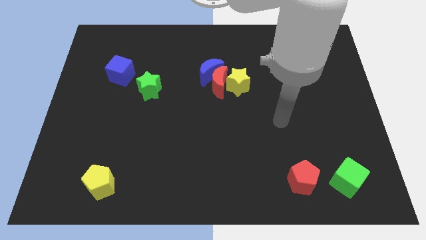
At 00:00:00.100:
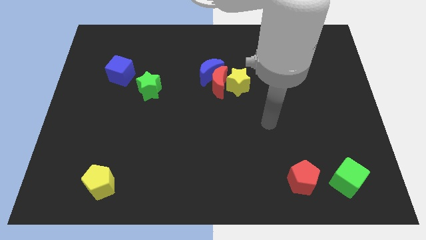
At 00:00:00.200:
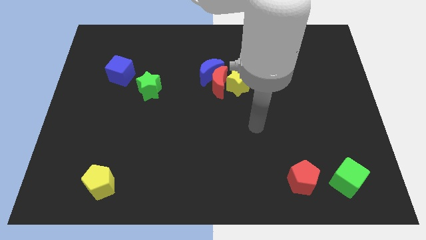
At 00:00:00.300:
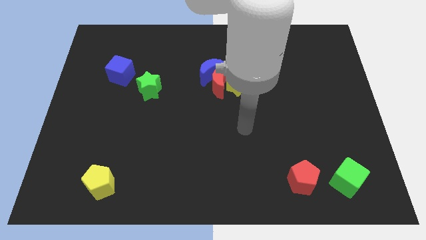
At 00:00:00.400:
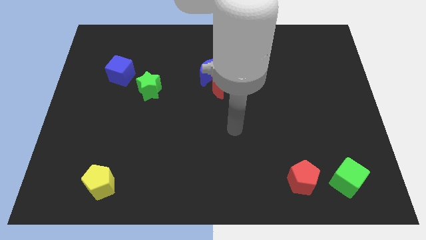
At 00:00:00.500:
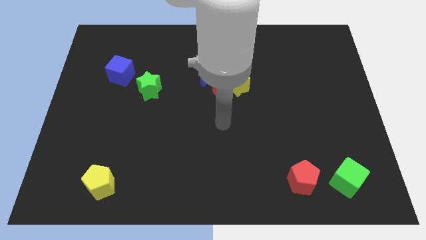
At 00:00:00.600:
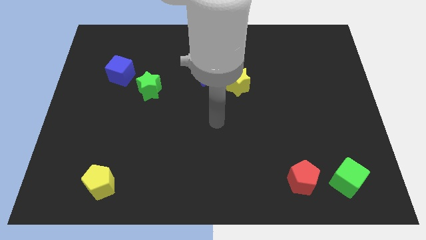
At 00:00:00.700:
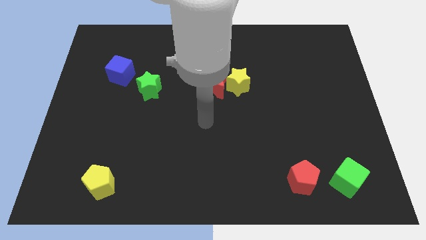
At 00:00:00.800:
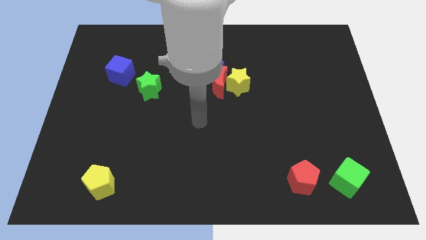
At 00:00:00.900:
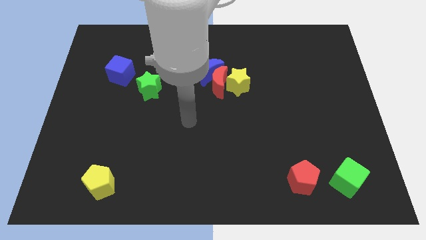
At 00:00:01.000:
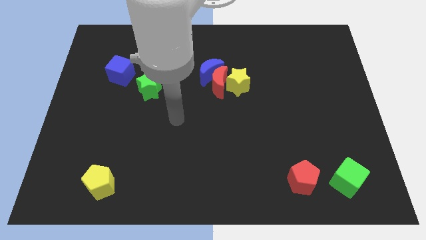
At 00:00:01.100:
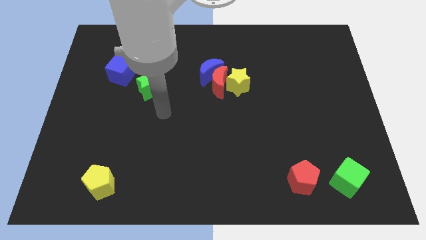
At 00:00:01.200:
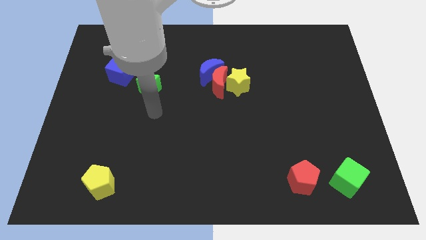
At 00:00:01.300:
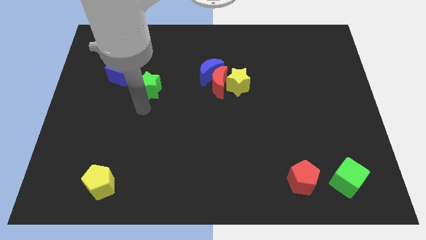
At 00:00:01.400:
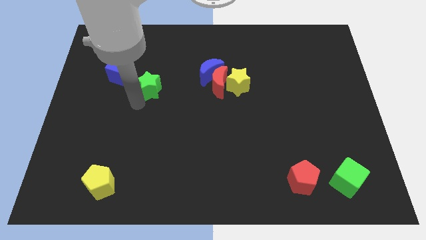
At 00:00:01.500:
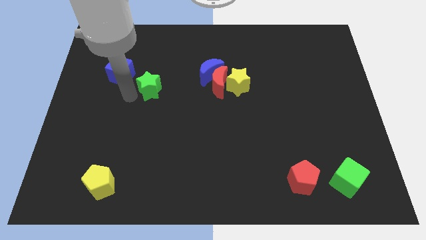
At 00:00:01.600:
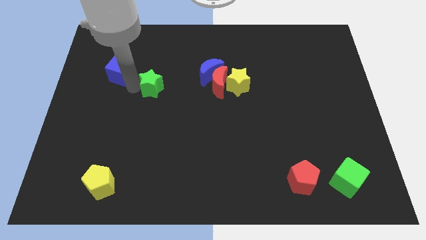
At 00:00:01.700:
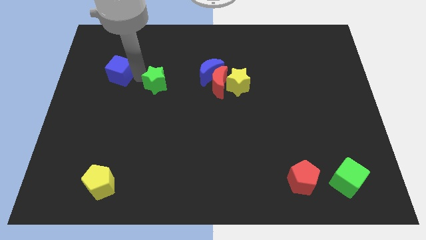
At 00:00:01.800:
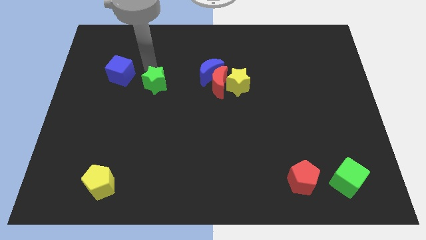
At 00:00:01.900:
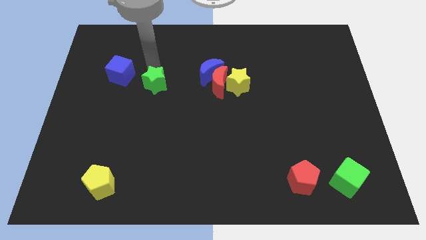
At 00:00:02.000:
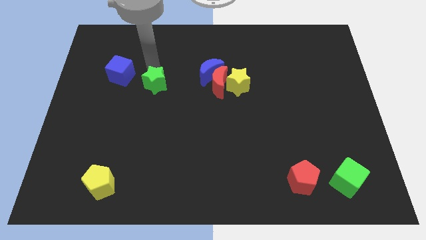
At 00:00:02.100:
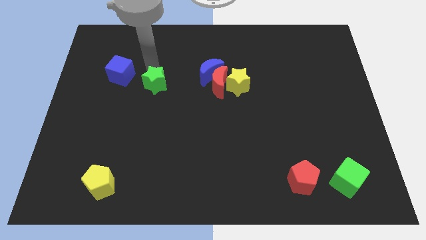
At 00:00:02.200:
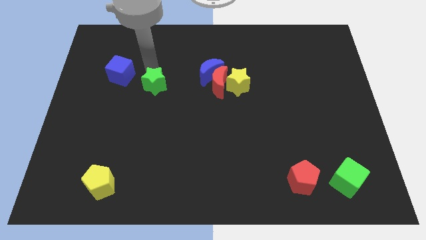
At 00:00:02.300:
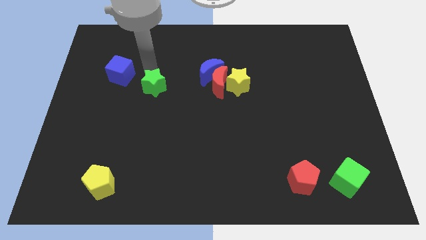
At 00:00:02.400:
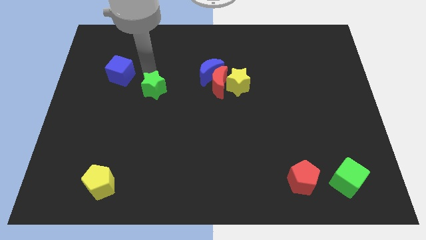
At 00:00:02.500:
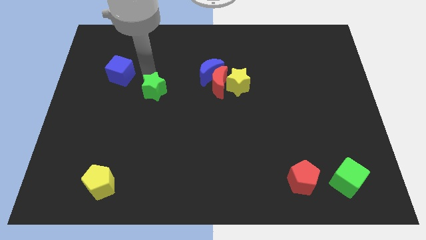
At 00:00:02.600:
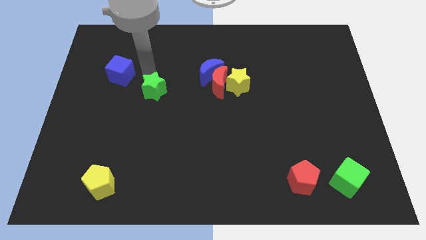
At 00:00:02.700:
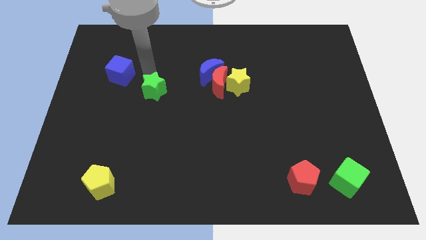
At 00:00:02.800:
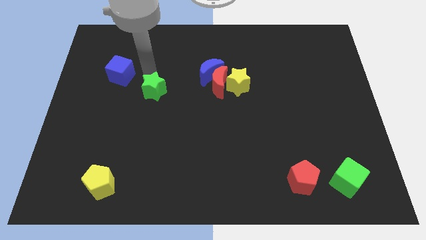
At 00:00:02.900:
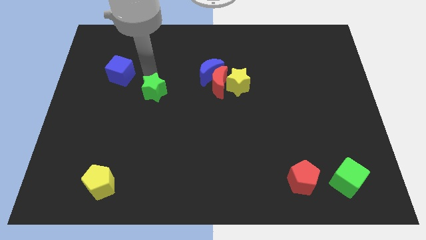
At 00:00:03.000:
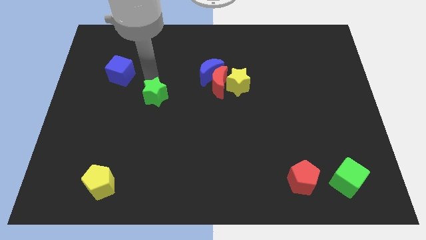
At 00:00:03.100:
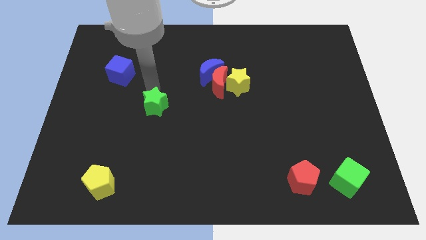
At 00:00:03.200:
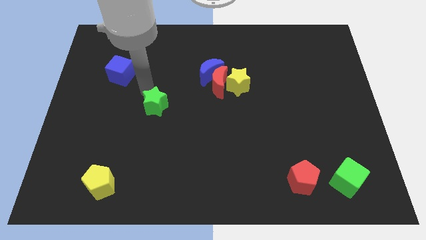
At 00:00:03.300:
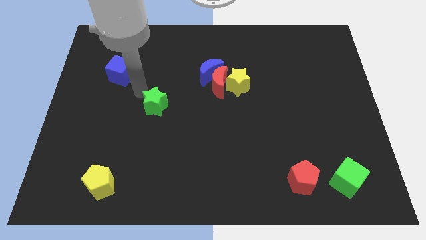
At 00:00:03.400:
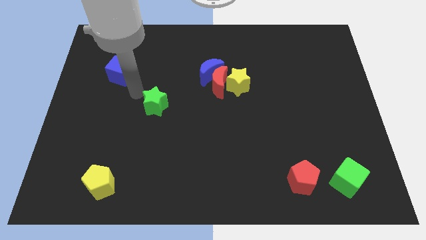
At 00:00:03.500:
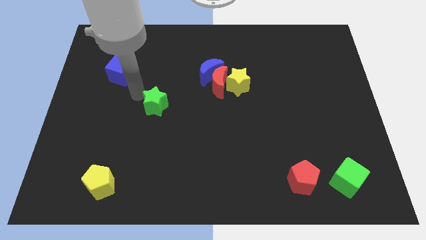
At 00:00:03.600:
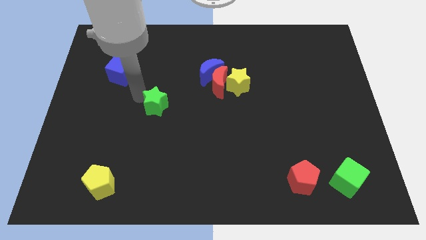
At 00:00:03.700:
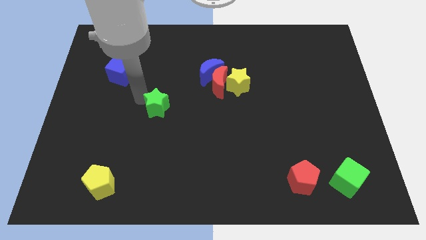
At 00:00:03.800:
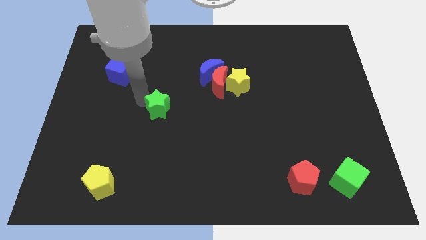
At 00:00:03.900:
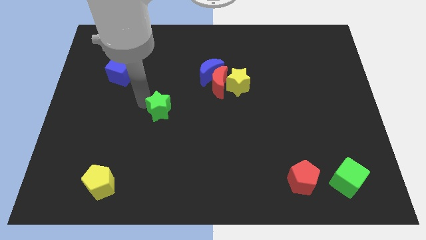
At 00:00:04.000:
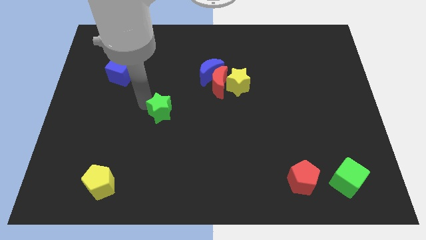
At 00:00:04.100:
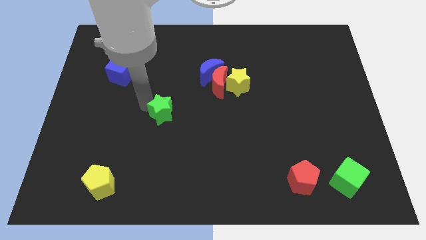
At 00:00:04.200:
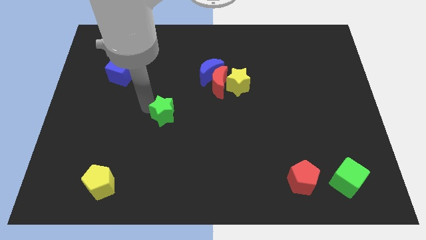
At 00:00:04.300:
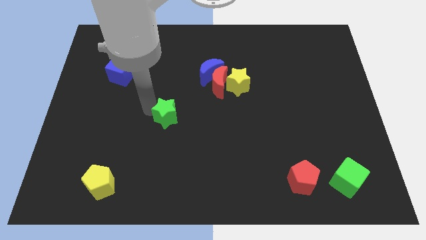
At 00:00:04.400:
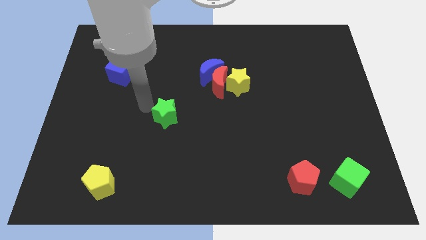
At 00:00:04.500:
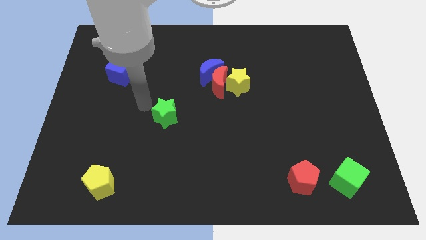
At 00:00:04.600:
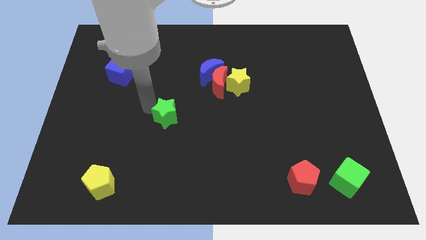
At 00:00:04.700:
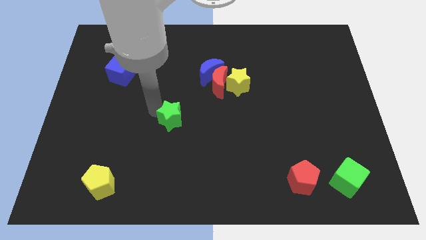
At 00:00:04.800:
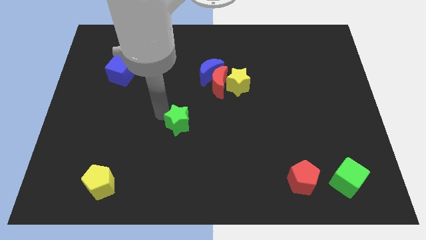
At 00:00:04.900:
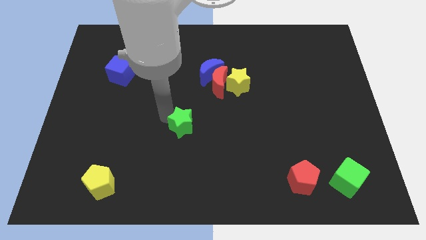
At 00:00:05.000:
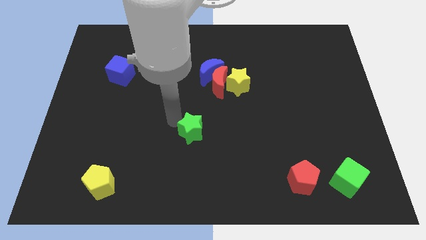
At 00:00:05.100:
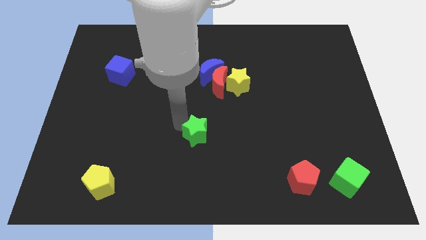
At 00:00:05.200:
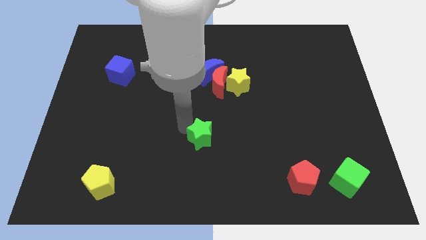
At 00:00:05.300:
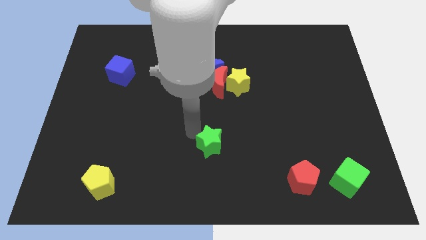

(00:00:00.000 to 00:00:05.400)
move the green star down and right diagonally

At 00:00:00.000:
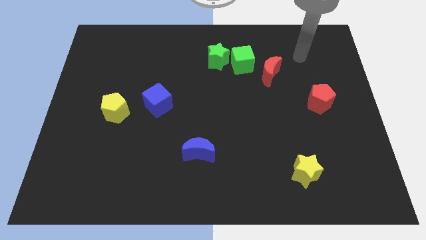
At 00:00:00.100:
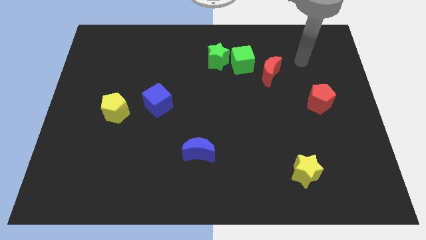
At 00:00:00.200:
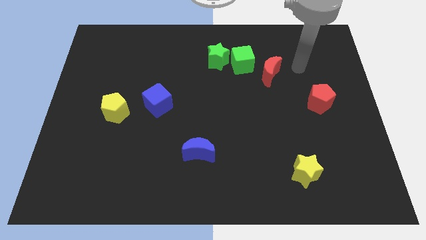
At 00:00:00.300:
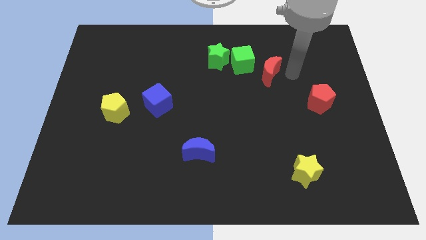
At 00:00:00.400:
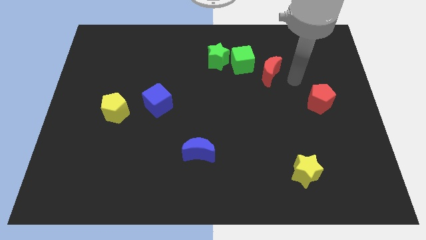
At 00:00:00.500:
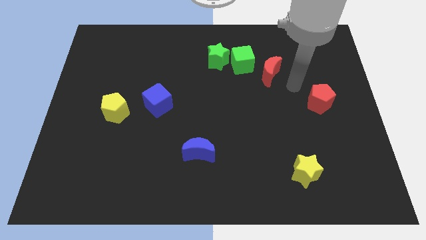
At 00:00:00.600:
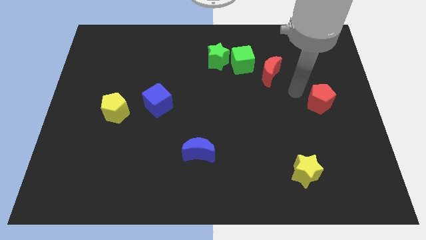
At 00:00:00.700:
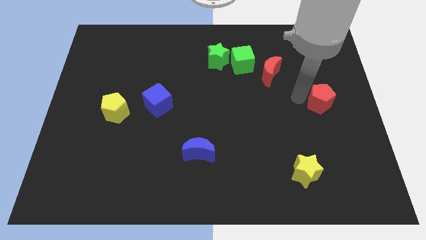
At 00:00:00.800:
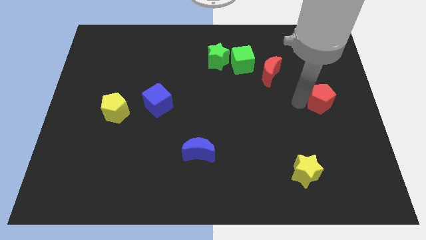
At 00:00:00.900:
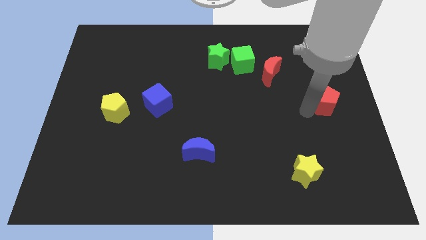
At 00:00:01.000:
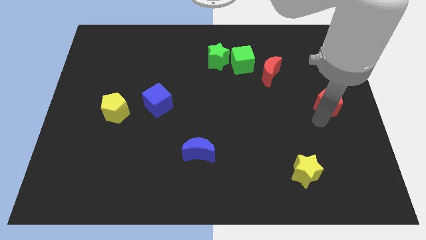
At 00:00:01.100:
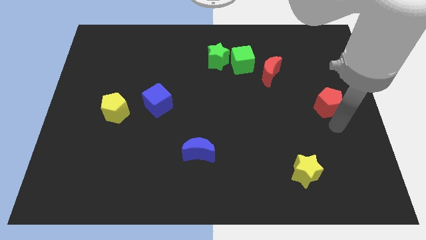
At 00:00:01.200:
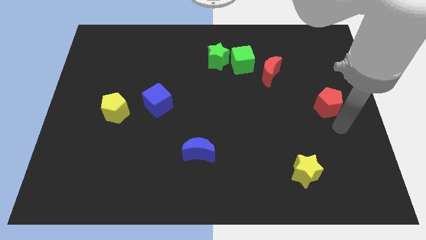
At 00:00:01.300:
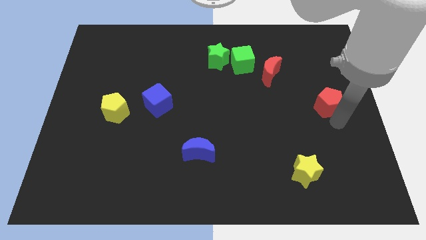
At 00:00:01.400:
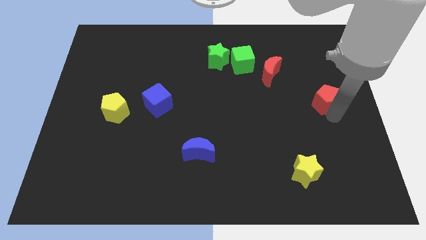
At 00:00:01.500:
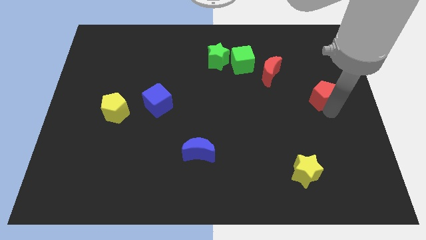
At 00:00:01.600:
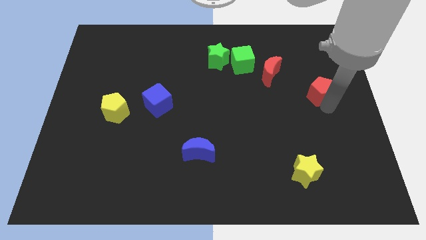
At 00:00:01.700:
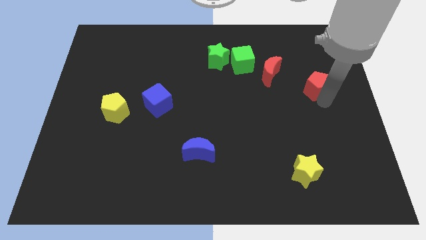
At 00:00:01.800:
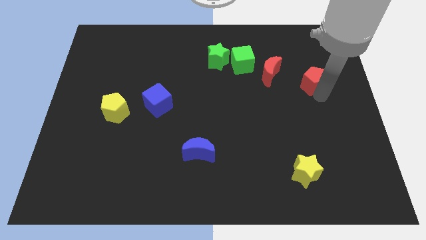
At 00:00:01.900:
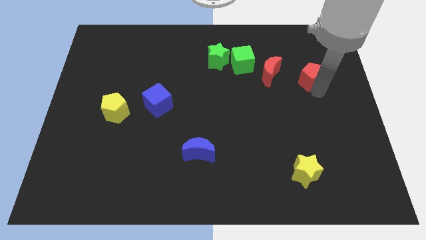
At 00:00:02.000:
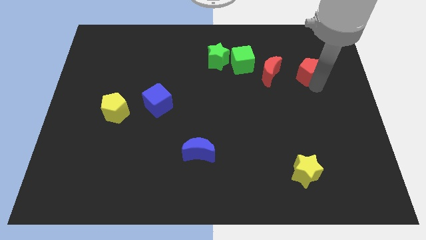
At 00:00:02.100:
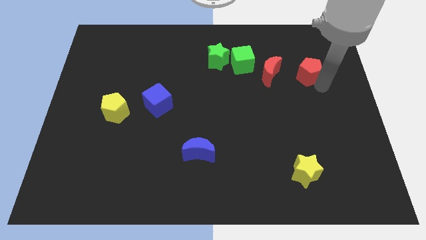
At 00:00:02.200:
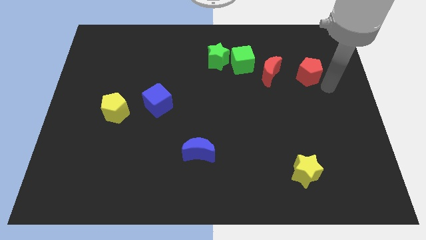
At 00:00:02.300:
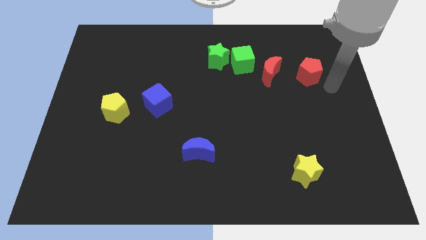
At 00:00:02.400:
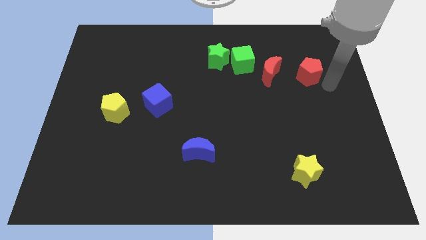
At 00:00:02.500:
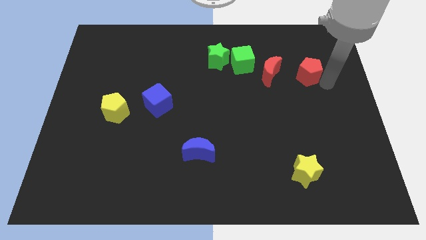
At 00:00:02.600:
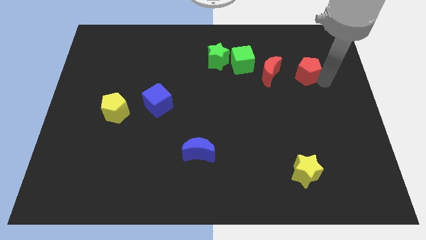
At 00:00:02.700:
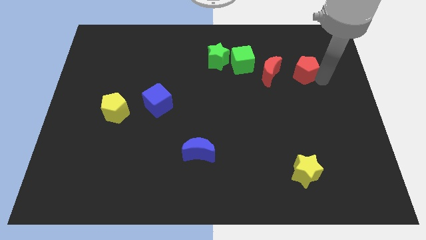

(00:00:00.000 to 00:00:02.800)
slightly slide the red pentagon upwards and to the left
